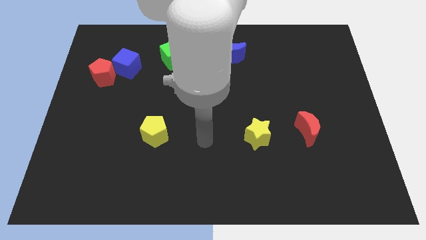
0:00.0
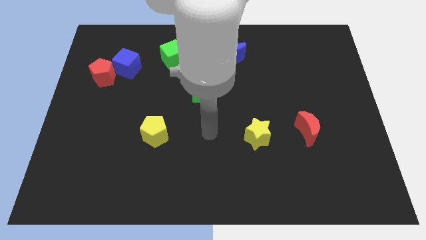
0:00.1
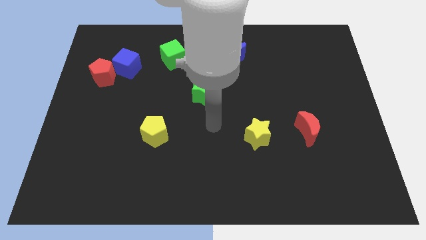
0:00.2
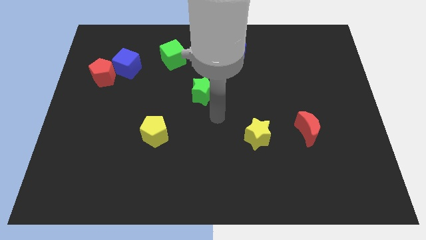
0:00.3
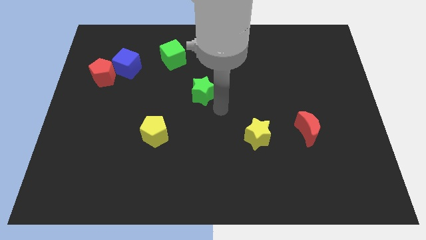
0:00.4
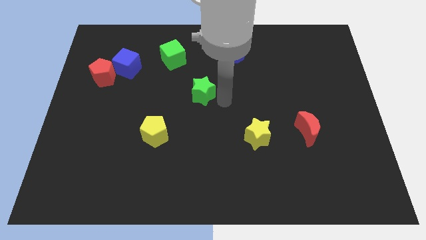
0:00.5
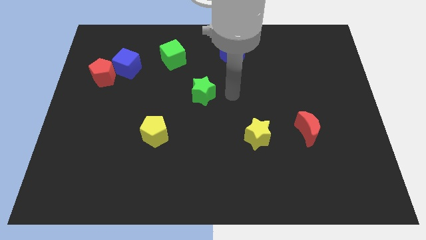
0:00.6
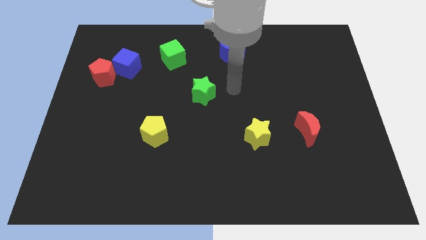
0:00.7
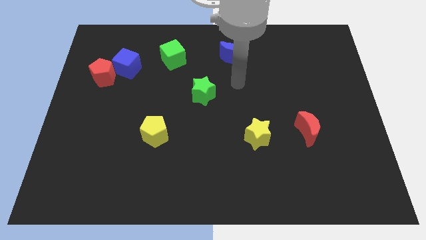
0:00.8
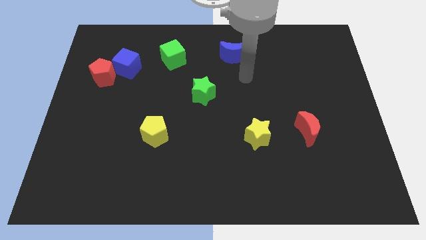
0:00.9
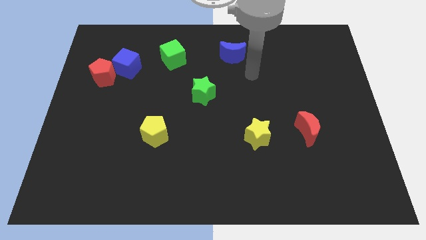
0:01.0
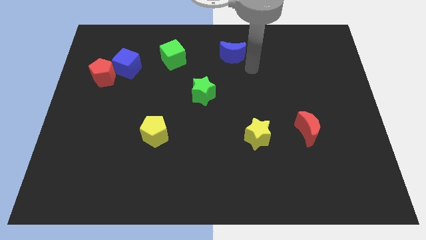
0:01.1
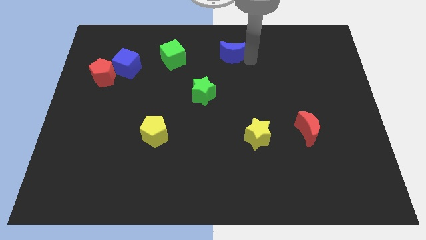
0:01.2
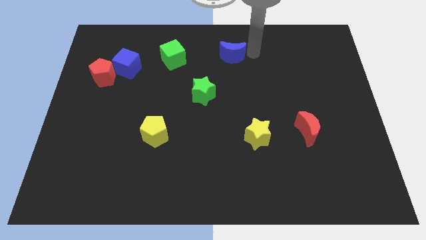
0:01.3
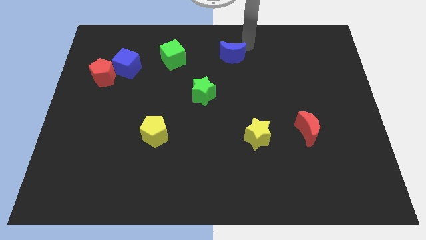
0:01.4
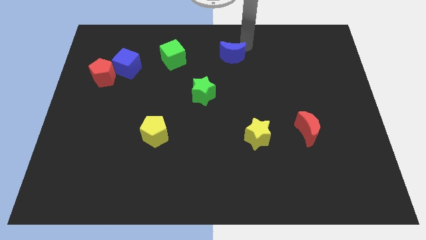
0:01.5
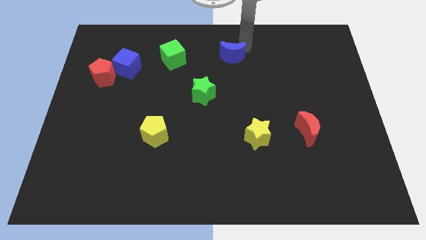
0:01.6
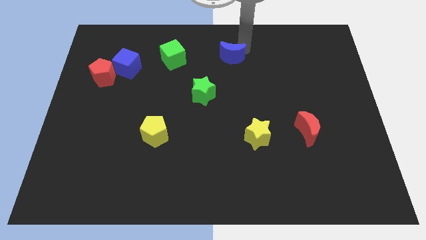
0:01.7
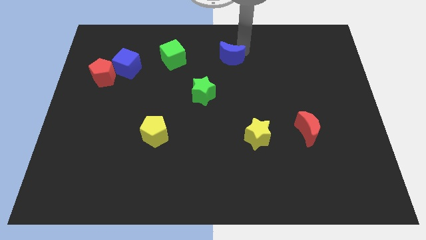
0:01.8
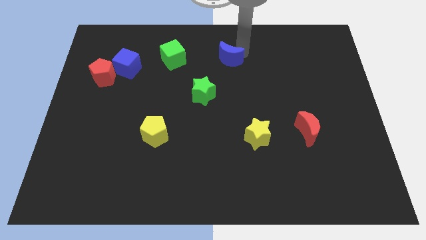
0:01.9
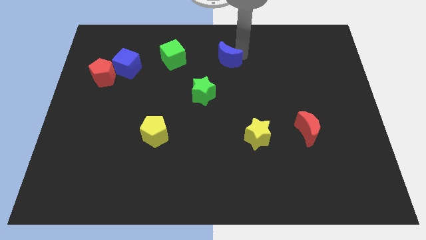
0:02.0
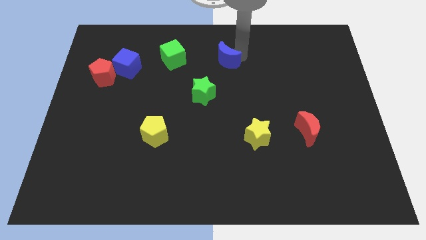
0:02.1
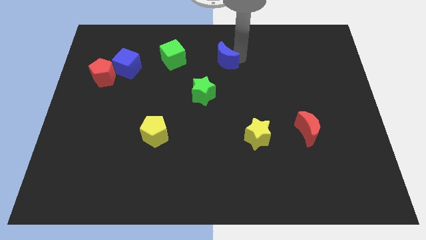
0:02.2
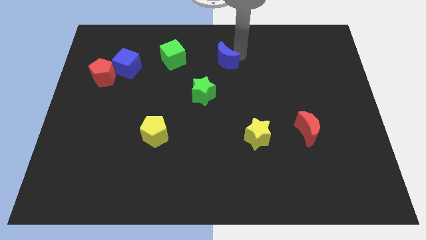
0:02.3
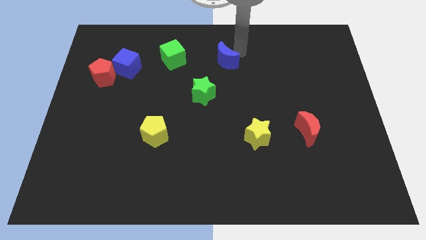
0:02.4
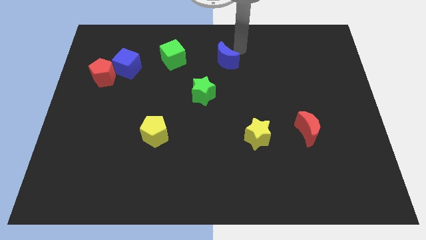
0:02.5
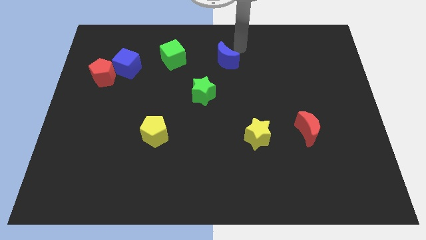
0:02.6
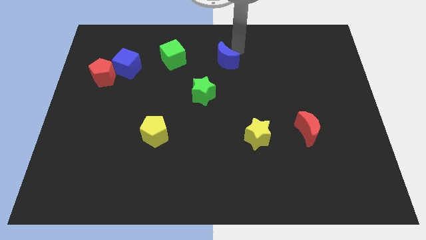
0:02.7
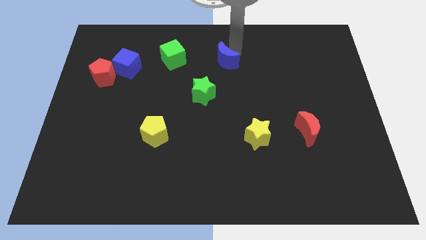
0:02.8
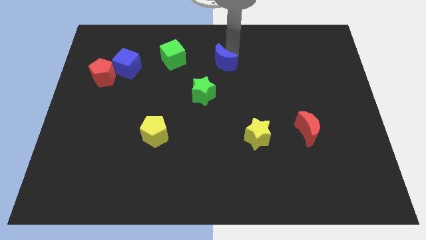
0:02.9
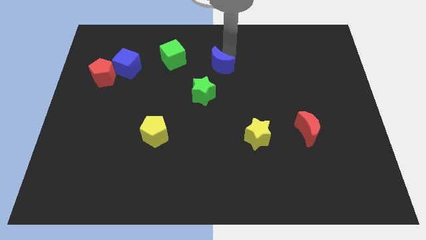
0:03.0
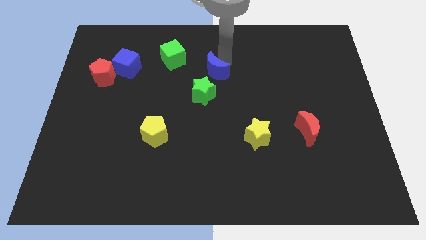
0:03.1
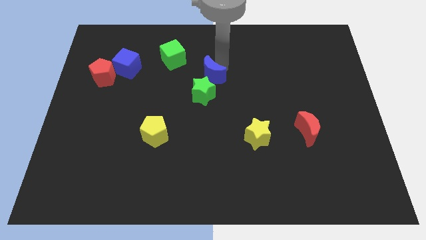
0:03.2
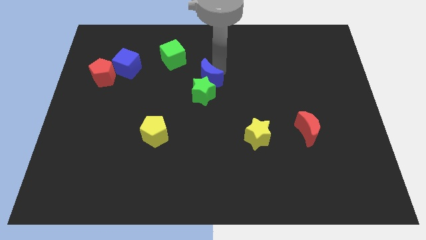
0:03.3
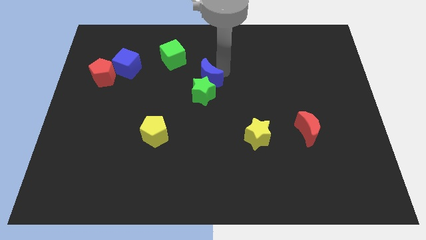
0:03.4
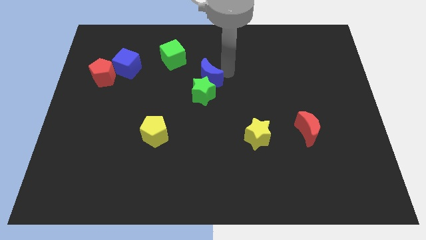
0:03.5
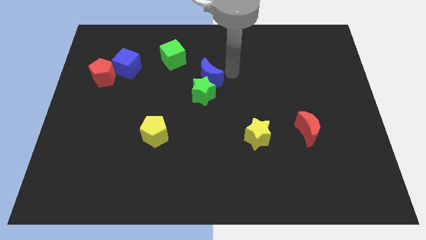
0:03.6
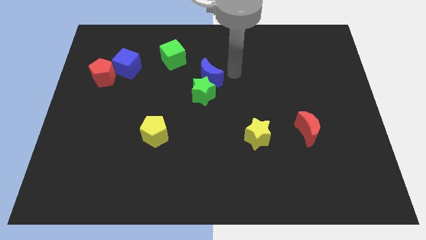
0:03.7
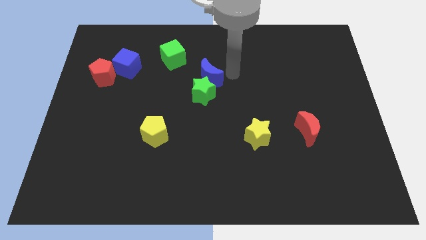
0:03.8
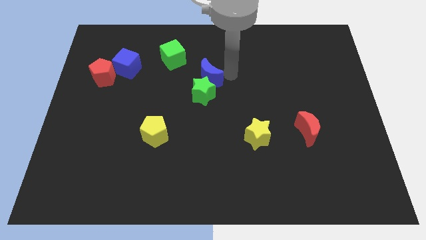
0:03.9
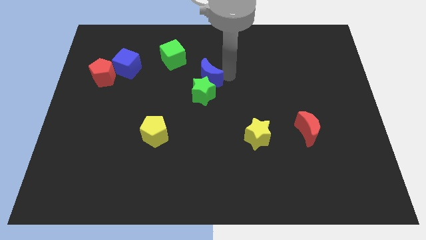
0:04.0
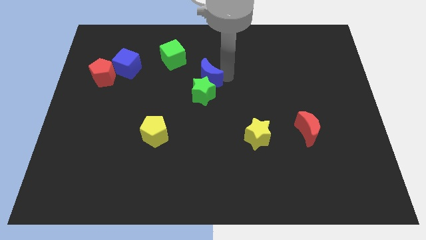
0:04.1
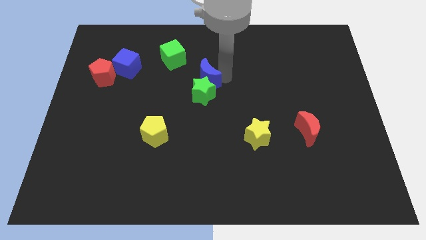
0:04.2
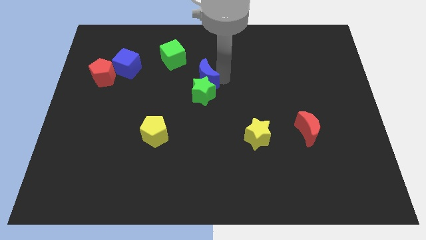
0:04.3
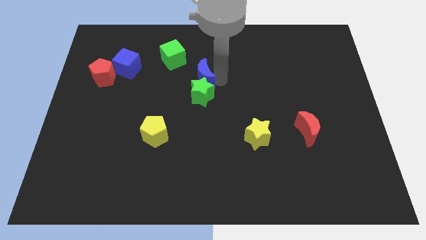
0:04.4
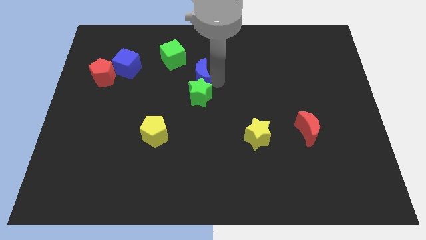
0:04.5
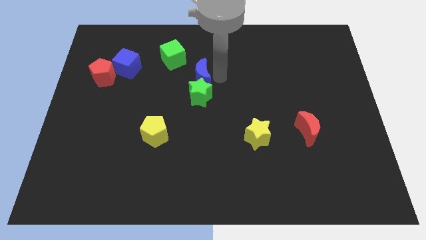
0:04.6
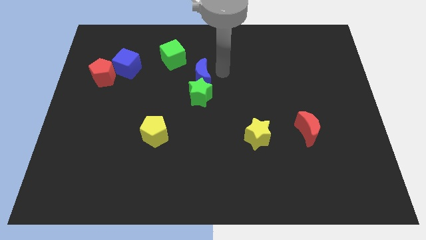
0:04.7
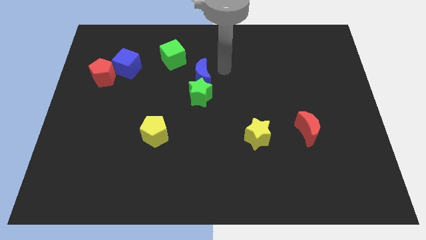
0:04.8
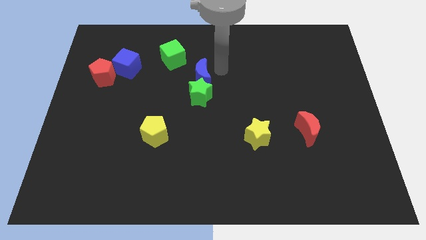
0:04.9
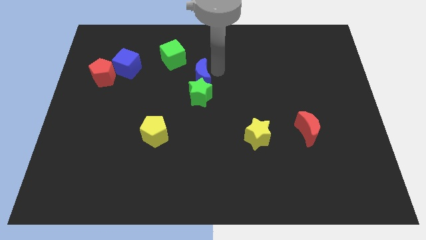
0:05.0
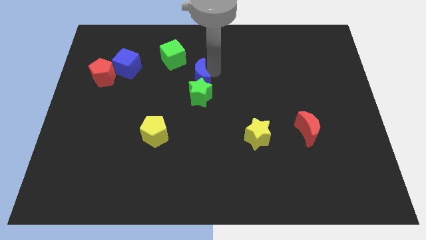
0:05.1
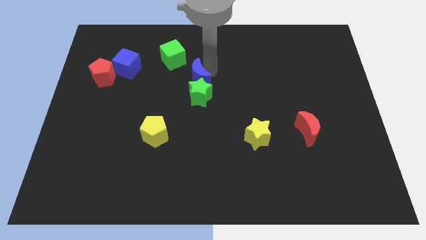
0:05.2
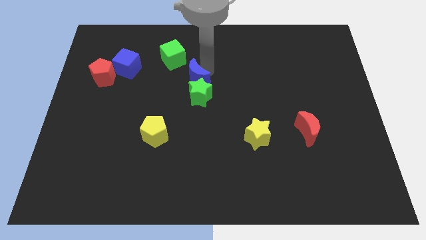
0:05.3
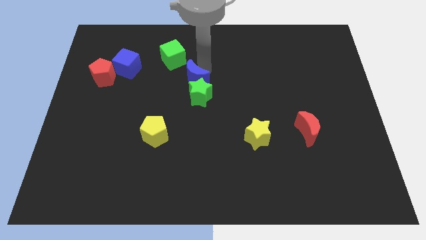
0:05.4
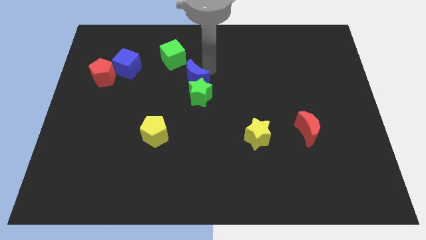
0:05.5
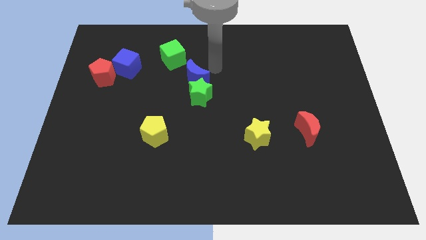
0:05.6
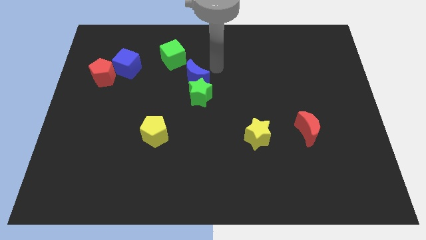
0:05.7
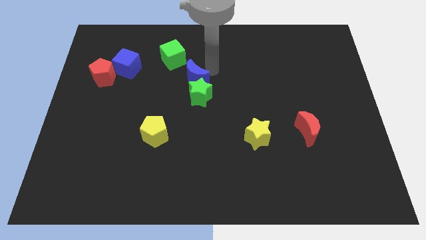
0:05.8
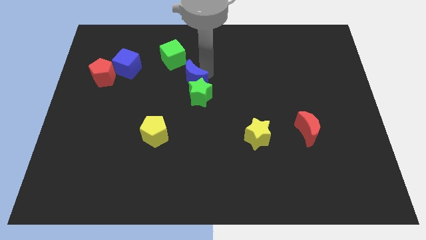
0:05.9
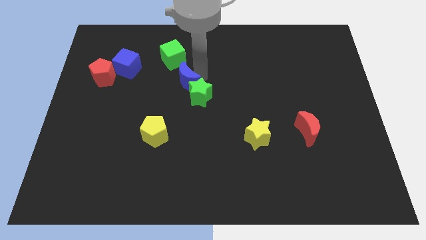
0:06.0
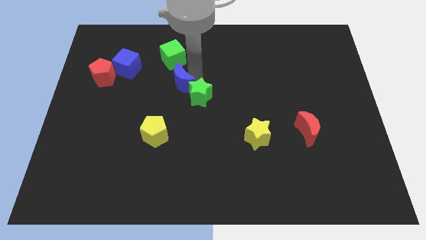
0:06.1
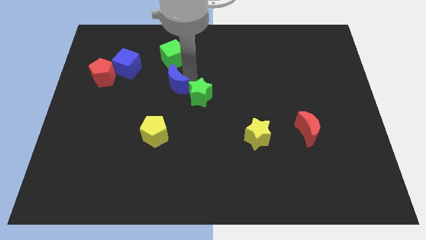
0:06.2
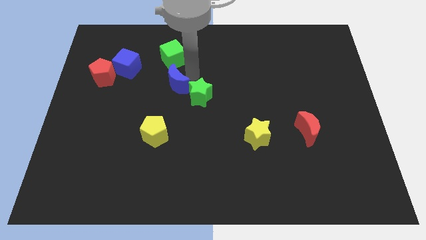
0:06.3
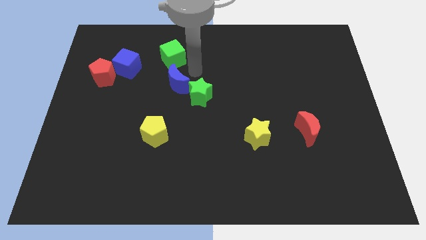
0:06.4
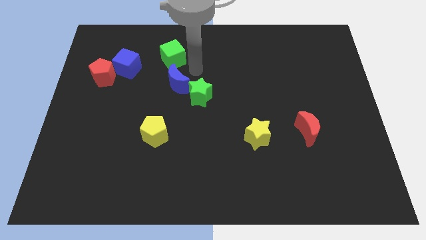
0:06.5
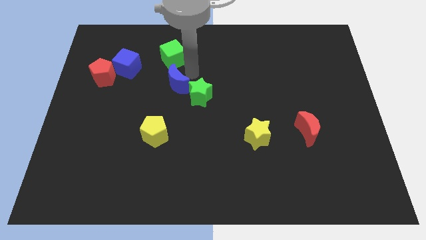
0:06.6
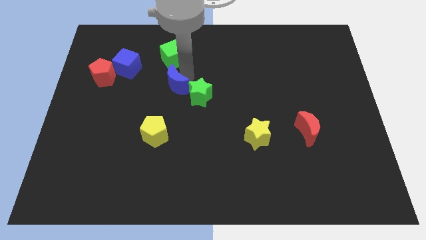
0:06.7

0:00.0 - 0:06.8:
put the blue moon above the yellow pentagon

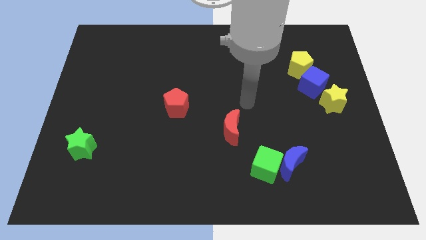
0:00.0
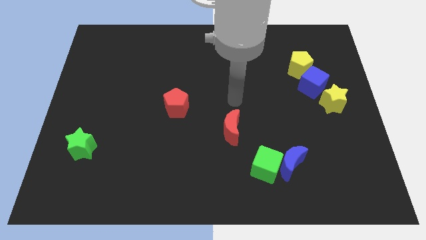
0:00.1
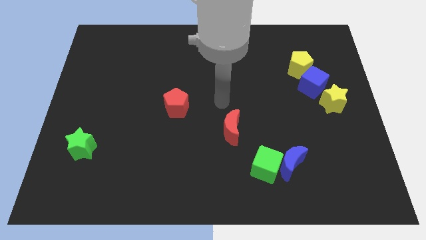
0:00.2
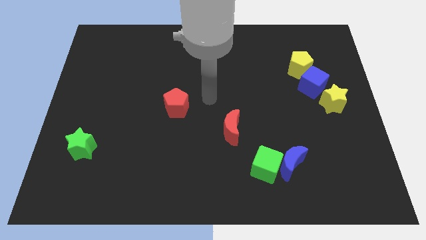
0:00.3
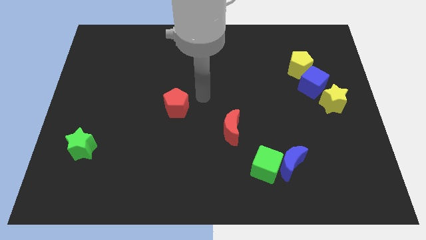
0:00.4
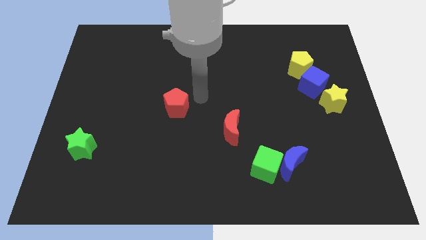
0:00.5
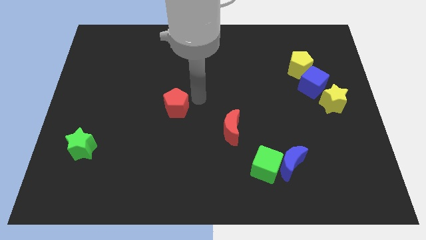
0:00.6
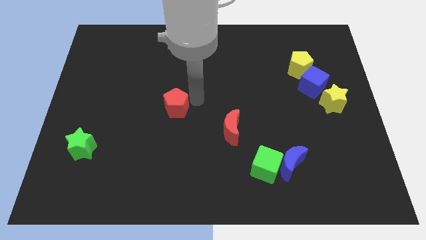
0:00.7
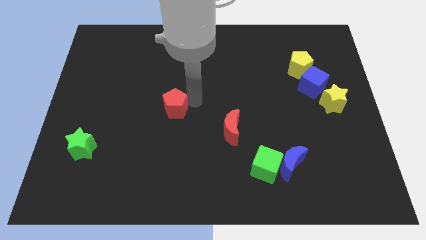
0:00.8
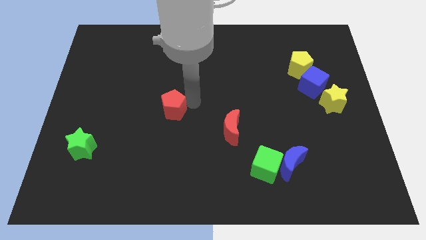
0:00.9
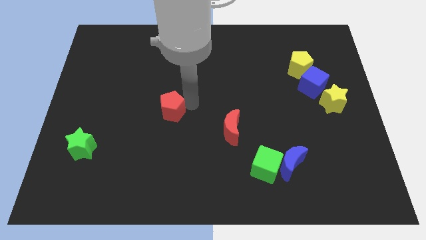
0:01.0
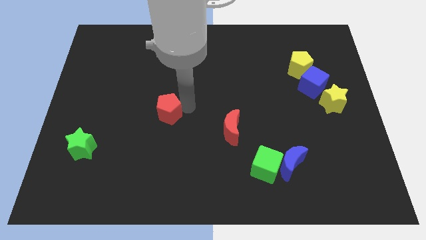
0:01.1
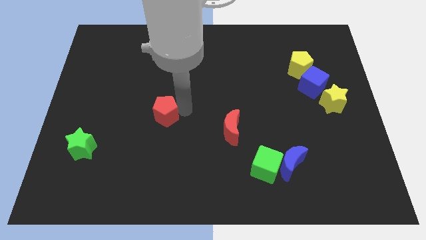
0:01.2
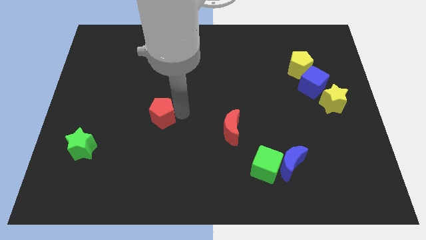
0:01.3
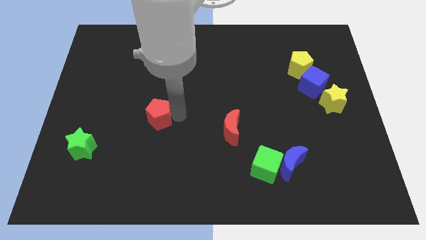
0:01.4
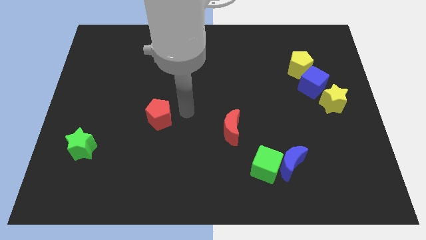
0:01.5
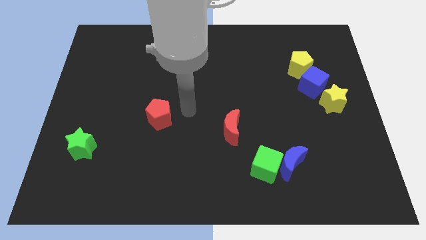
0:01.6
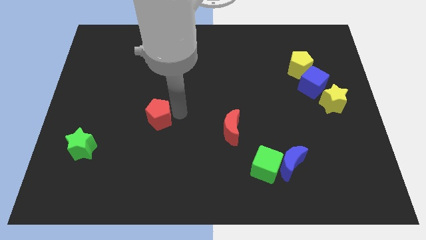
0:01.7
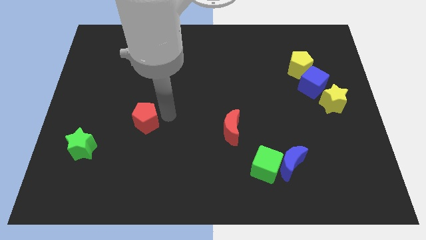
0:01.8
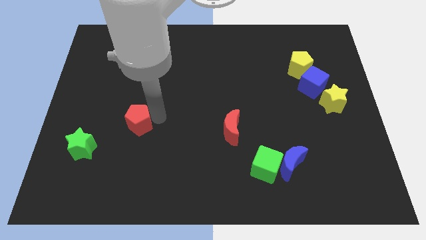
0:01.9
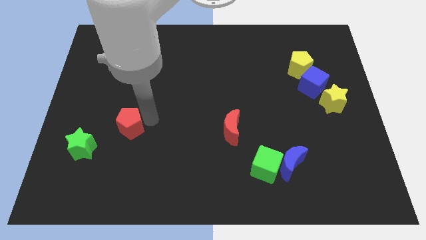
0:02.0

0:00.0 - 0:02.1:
put the red pentagon to the top right side of the green star
